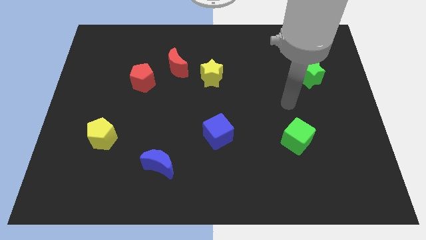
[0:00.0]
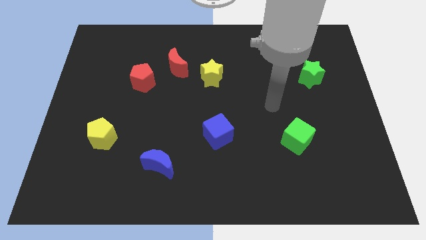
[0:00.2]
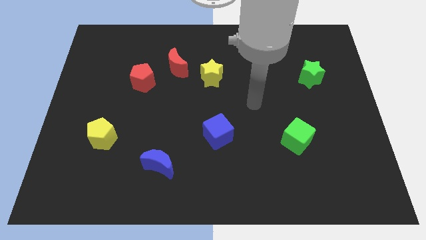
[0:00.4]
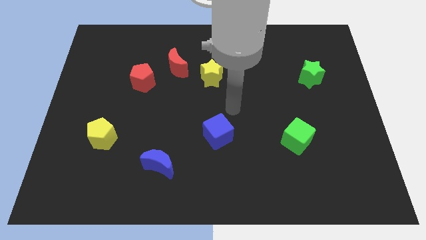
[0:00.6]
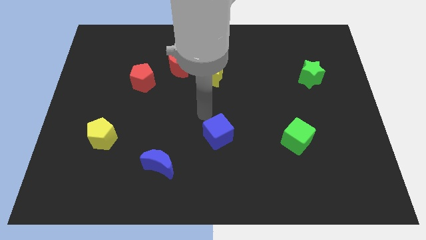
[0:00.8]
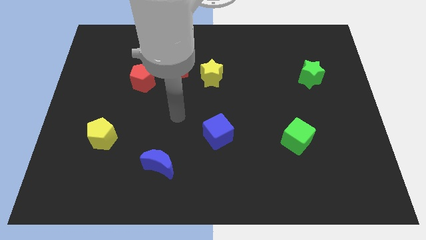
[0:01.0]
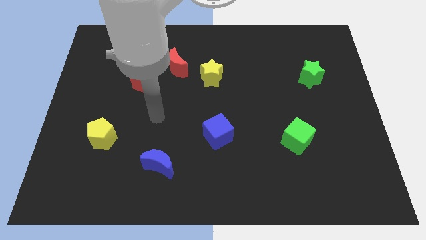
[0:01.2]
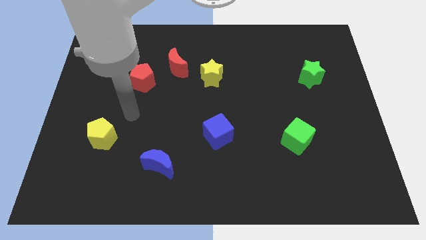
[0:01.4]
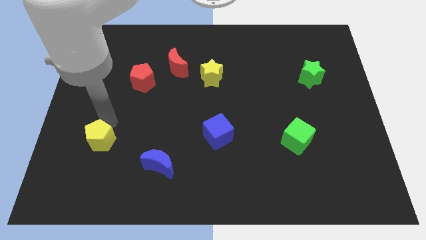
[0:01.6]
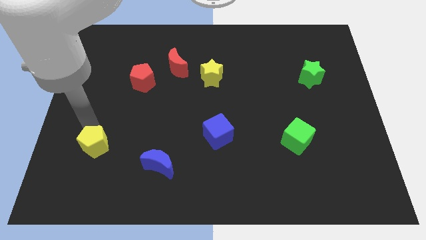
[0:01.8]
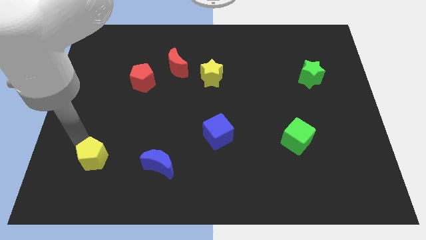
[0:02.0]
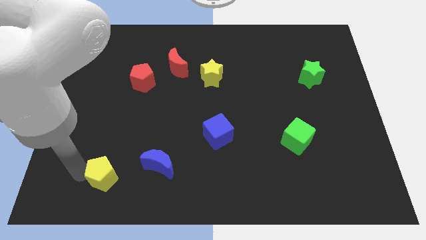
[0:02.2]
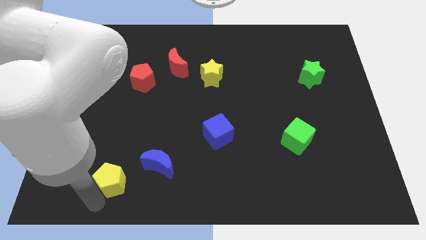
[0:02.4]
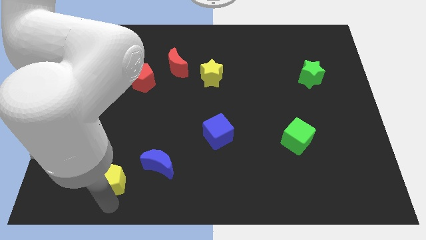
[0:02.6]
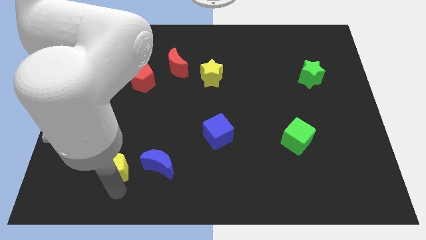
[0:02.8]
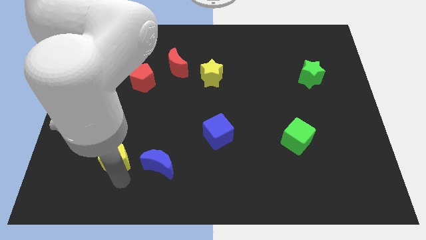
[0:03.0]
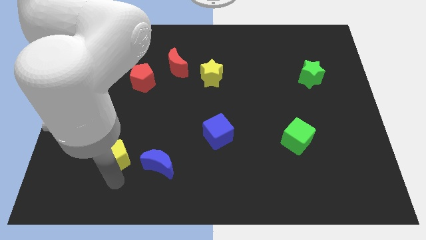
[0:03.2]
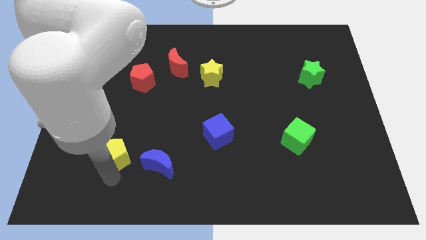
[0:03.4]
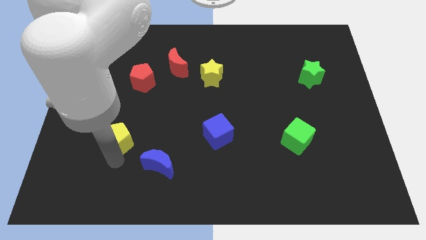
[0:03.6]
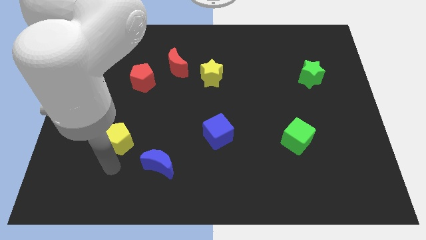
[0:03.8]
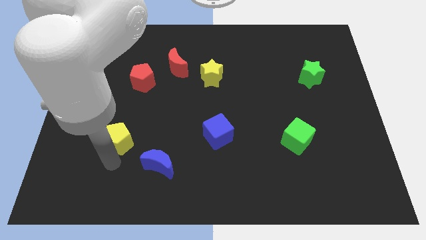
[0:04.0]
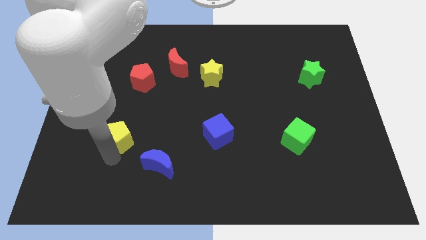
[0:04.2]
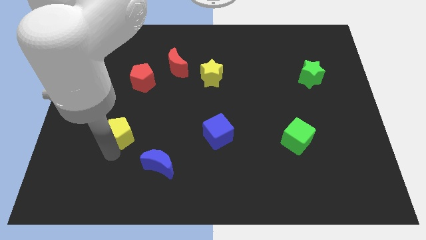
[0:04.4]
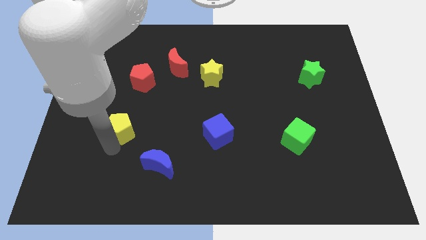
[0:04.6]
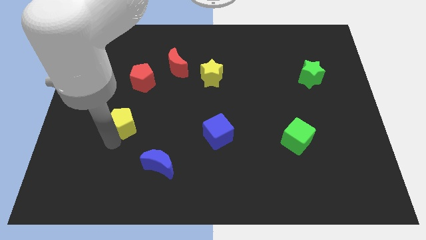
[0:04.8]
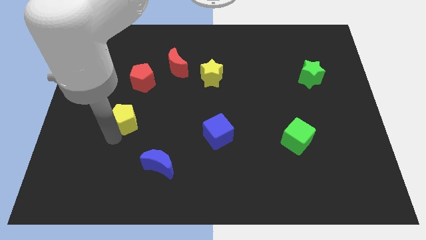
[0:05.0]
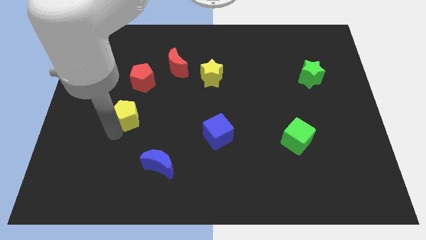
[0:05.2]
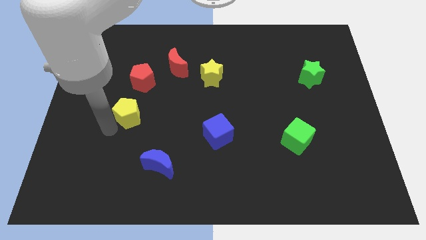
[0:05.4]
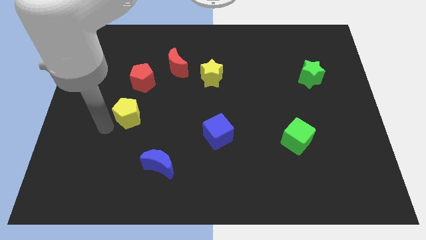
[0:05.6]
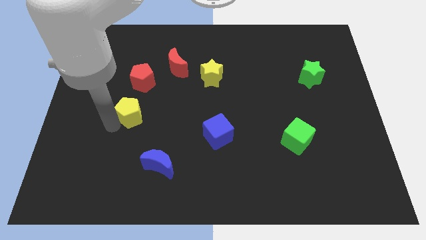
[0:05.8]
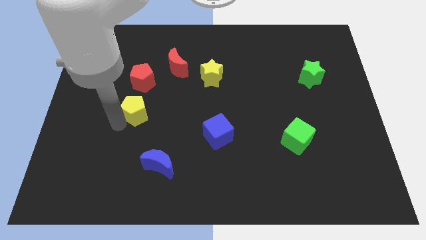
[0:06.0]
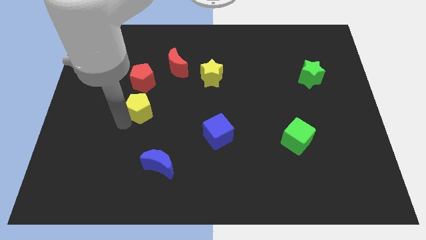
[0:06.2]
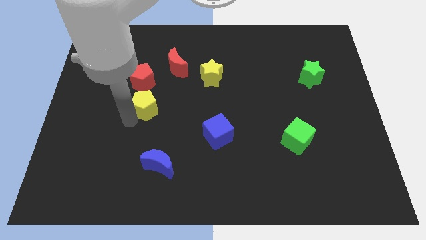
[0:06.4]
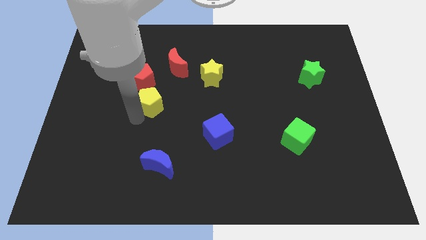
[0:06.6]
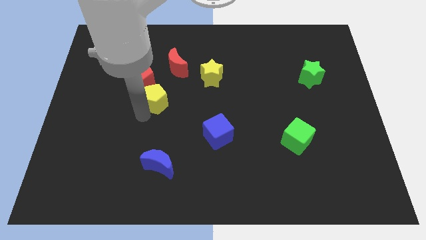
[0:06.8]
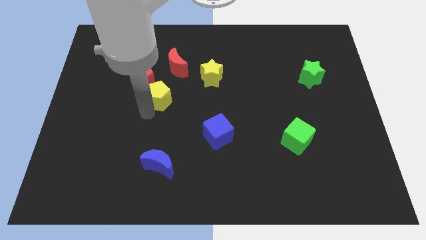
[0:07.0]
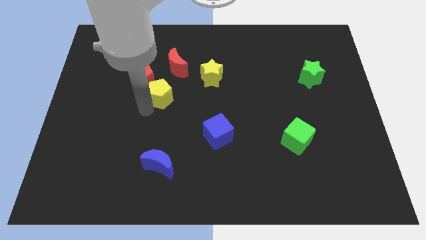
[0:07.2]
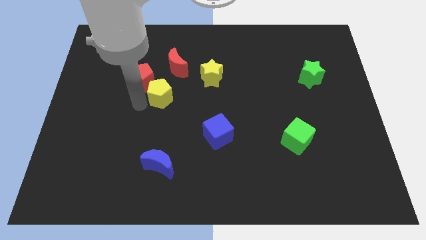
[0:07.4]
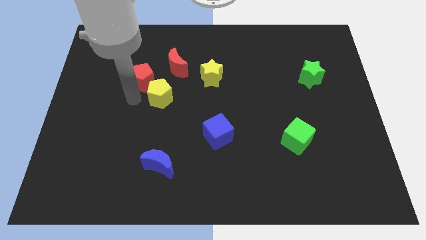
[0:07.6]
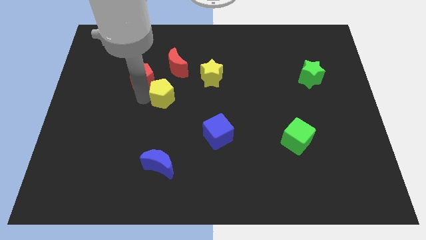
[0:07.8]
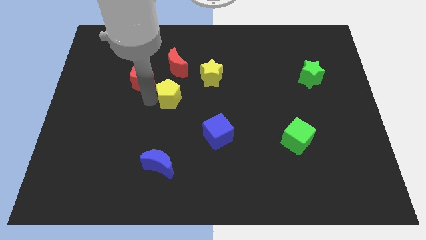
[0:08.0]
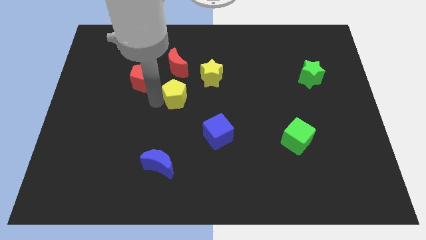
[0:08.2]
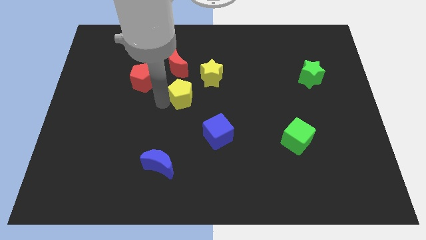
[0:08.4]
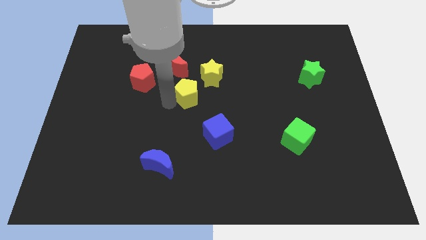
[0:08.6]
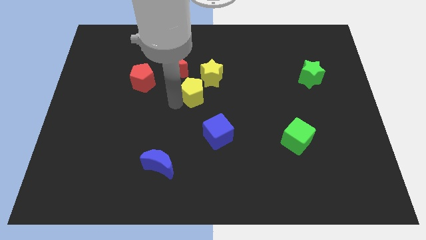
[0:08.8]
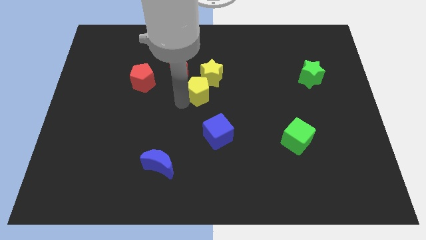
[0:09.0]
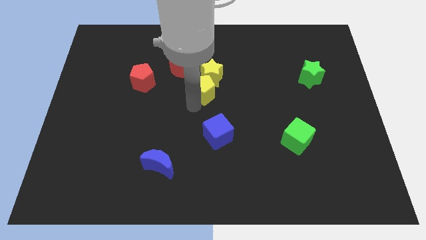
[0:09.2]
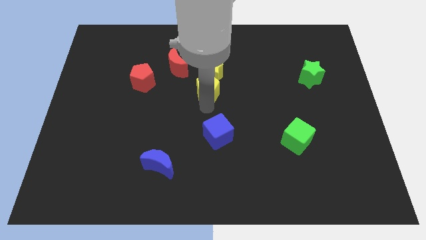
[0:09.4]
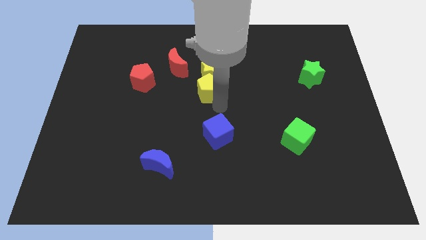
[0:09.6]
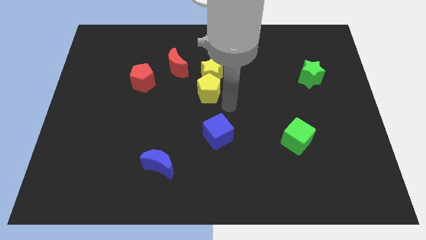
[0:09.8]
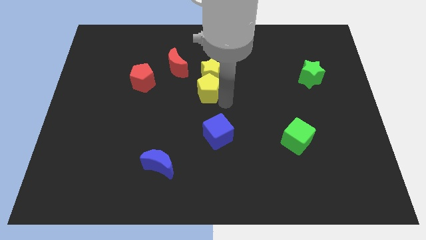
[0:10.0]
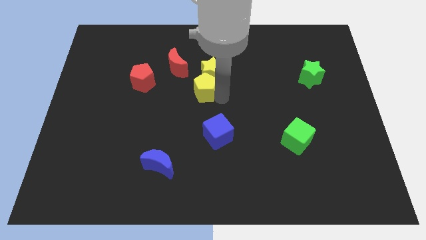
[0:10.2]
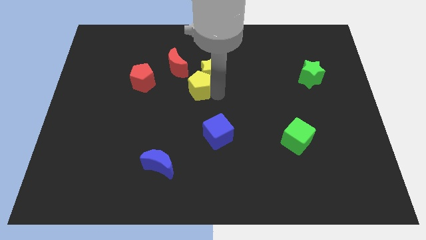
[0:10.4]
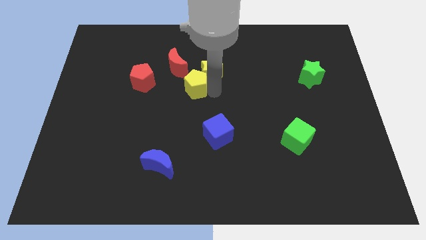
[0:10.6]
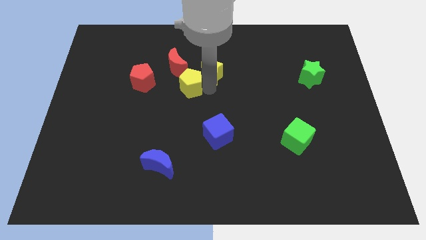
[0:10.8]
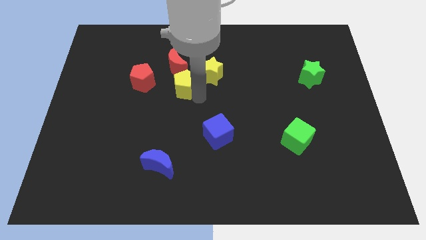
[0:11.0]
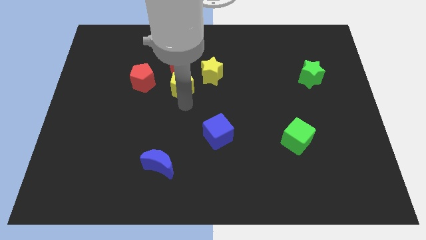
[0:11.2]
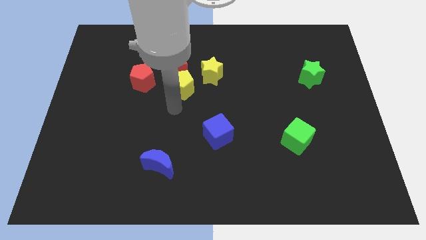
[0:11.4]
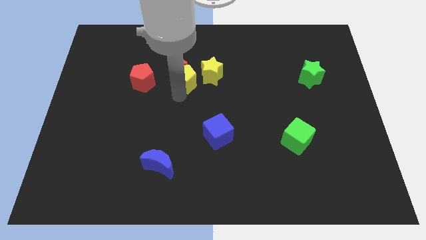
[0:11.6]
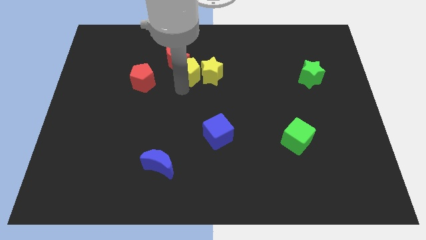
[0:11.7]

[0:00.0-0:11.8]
push the yellow pentagon to the top left side of the yellow star

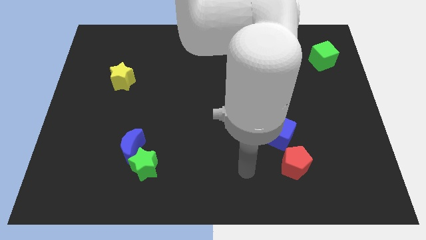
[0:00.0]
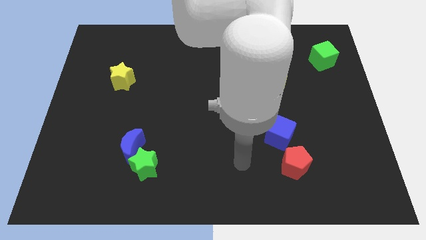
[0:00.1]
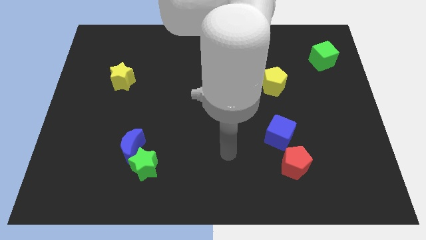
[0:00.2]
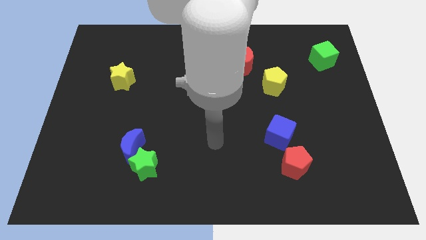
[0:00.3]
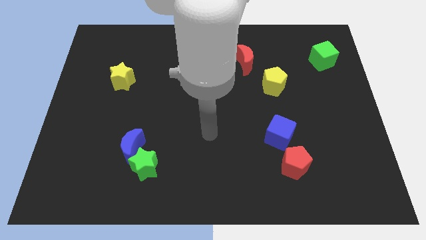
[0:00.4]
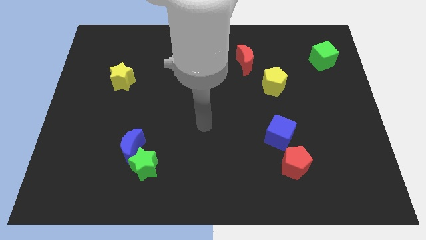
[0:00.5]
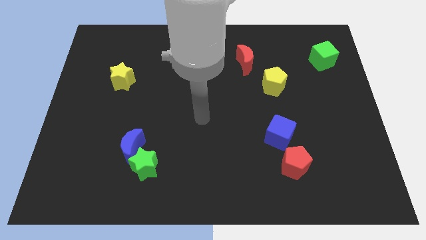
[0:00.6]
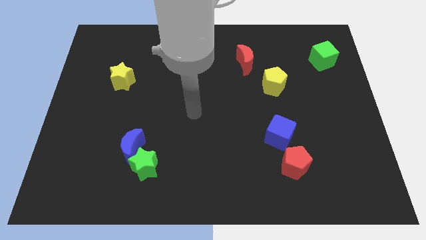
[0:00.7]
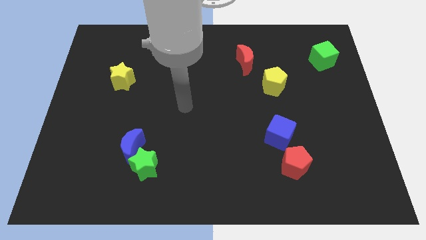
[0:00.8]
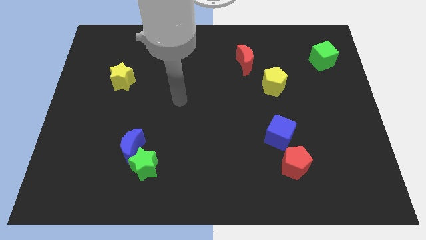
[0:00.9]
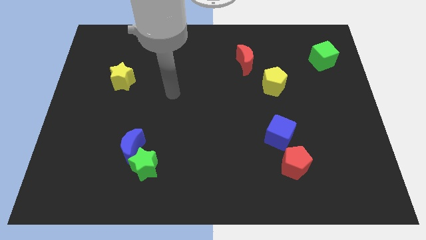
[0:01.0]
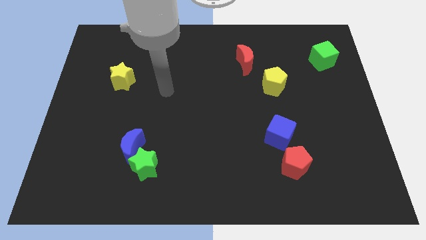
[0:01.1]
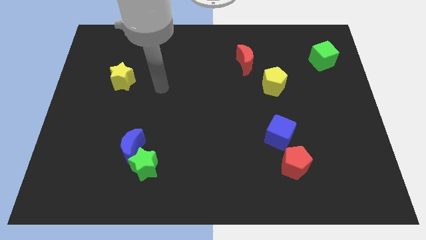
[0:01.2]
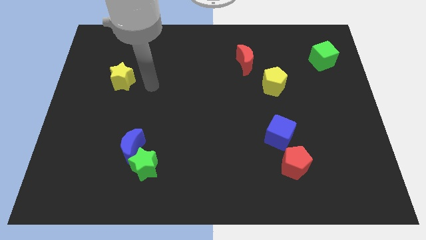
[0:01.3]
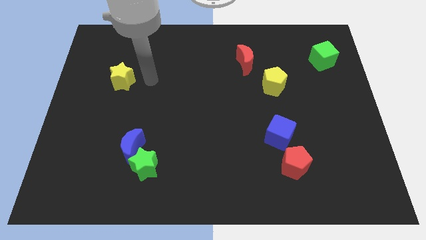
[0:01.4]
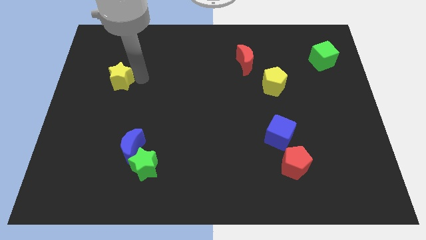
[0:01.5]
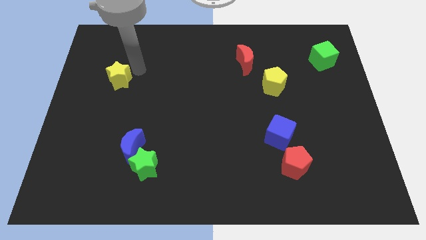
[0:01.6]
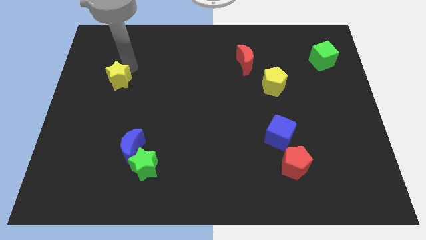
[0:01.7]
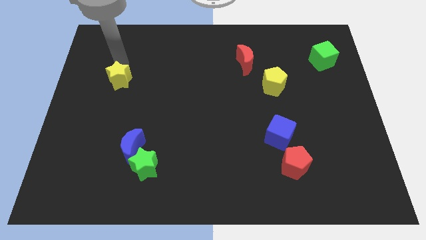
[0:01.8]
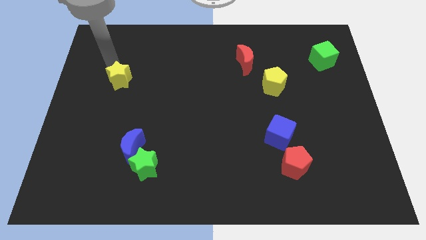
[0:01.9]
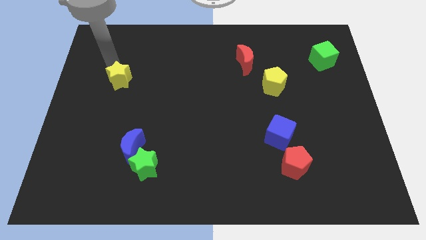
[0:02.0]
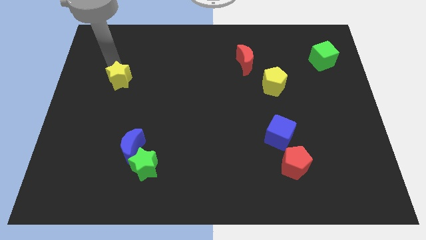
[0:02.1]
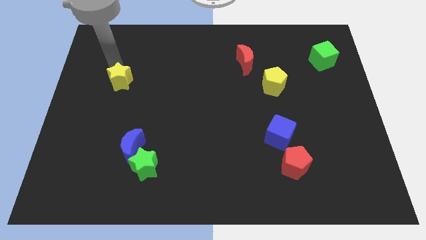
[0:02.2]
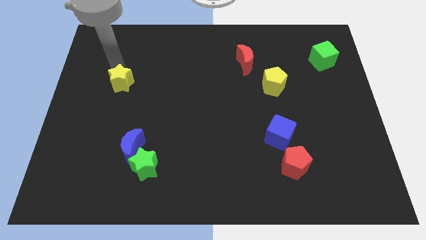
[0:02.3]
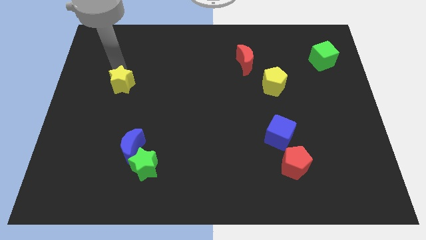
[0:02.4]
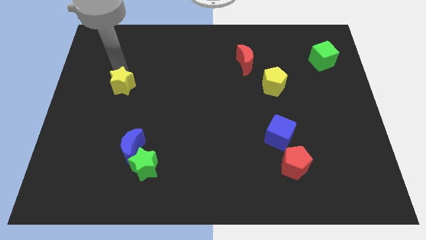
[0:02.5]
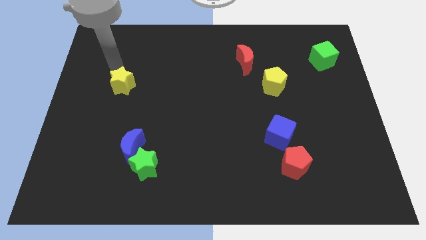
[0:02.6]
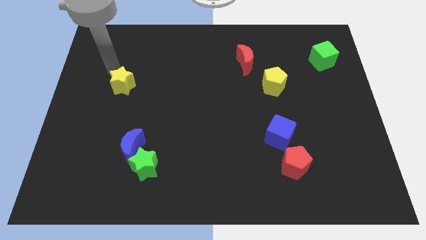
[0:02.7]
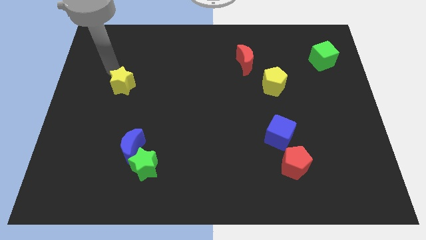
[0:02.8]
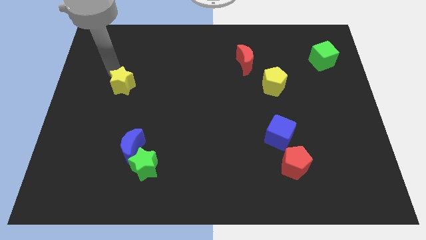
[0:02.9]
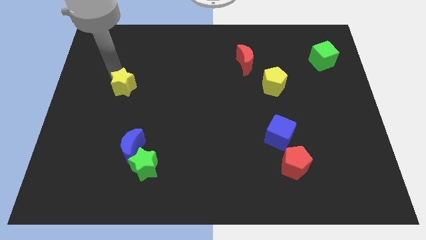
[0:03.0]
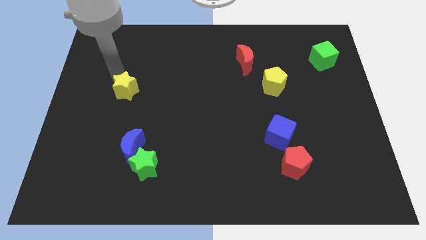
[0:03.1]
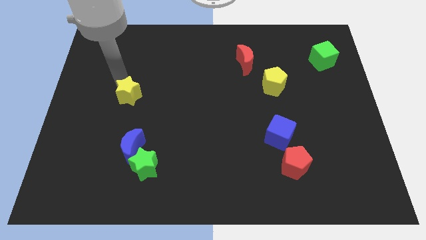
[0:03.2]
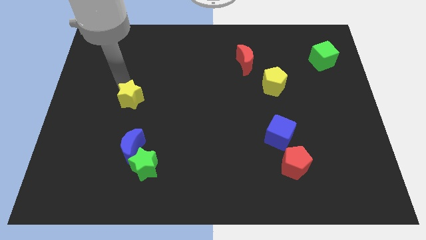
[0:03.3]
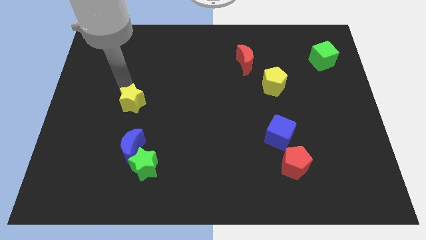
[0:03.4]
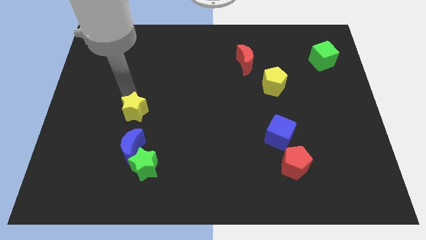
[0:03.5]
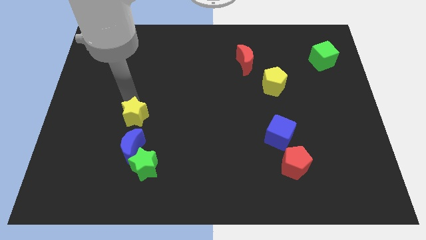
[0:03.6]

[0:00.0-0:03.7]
push the yellow star above the green star
